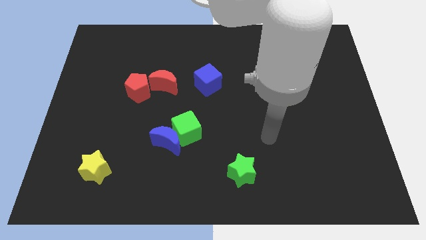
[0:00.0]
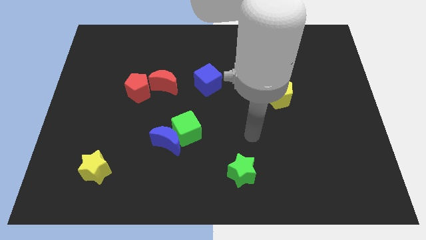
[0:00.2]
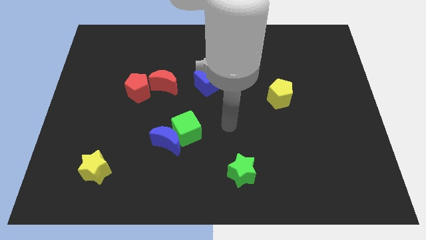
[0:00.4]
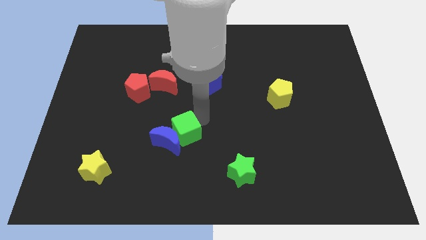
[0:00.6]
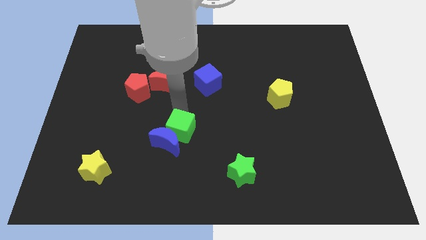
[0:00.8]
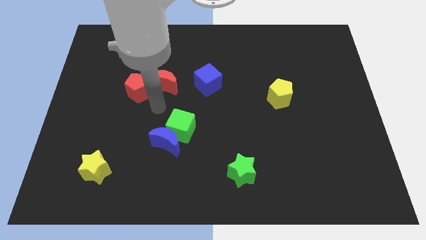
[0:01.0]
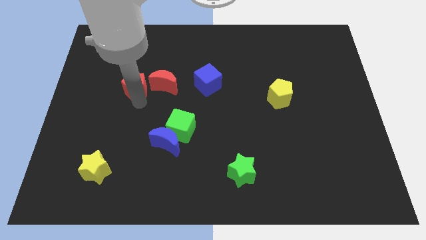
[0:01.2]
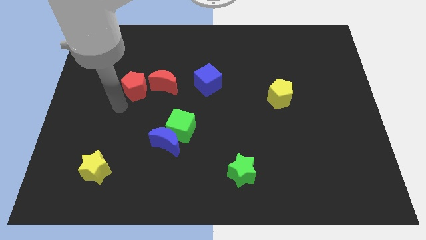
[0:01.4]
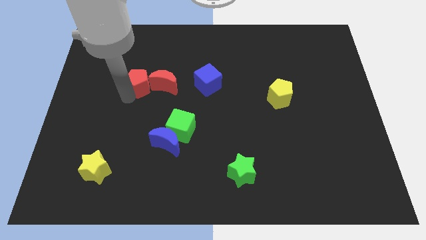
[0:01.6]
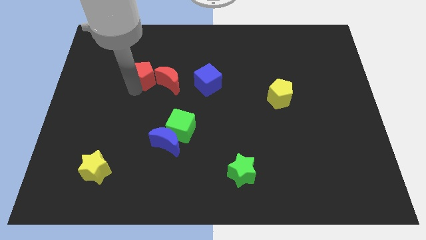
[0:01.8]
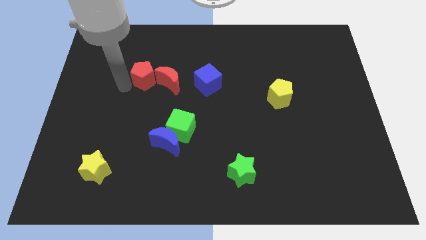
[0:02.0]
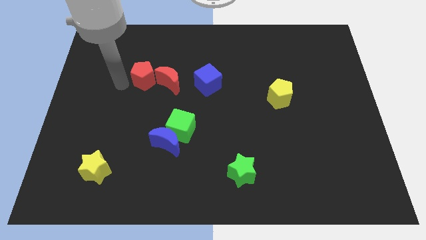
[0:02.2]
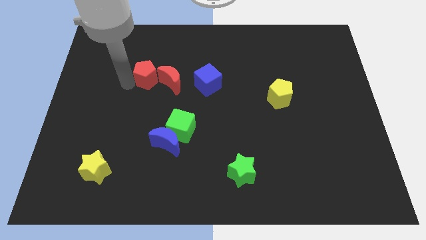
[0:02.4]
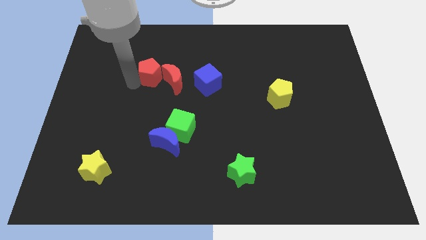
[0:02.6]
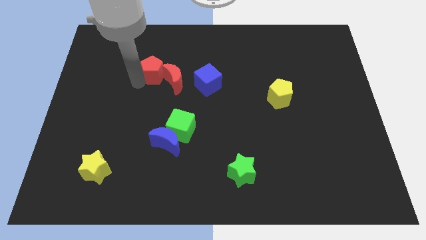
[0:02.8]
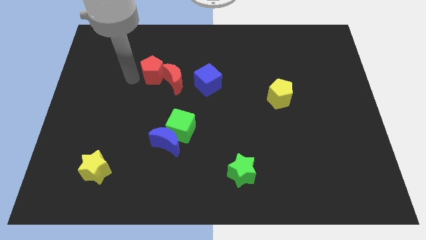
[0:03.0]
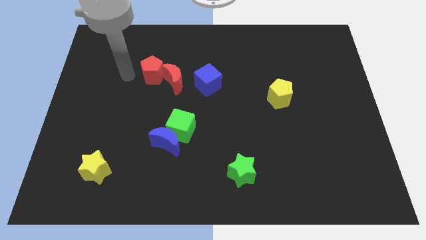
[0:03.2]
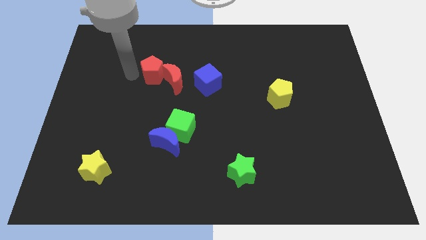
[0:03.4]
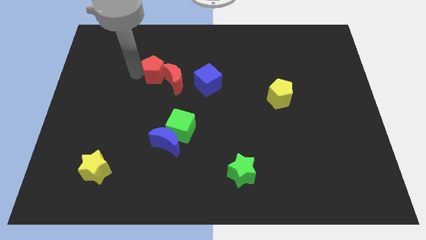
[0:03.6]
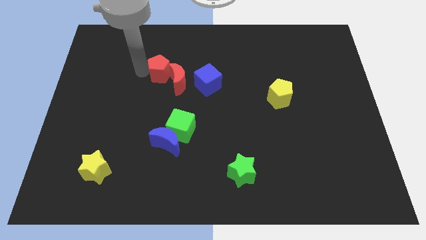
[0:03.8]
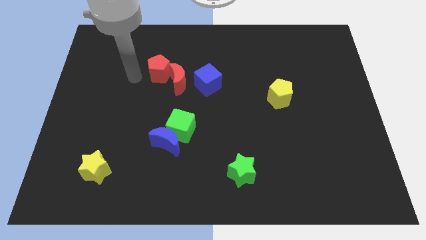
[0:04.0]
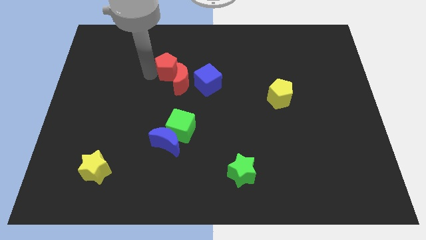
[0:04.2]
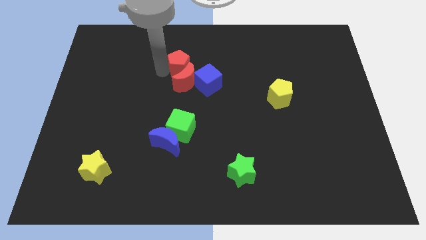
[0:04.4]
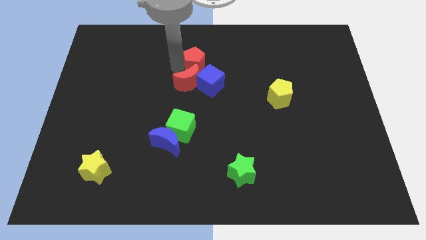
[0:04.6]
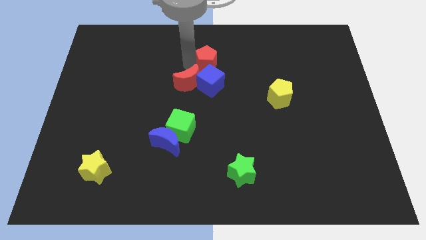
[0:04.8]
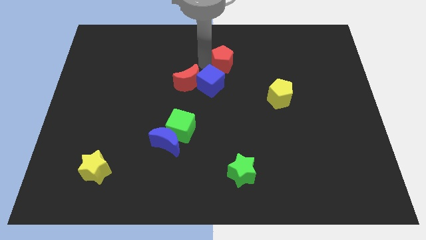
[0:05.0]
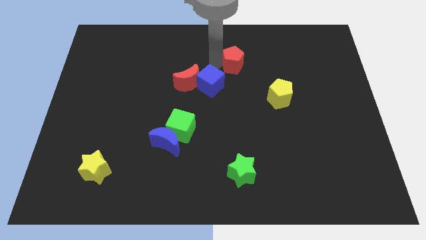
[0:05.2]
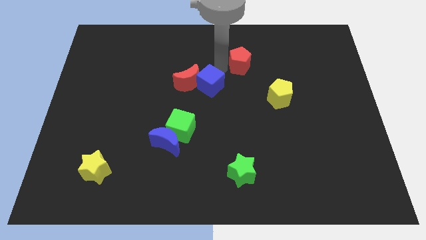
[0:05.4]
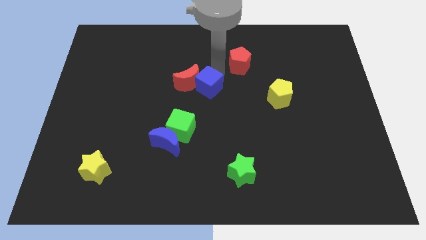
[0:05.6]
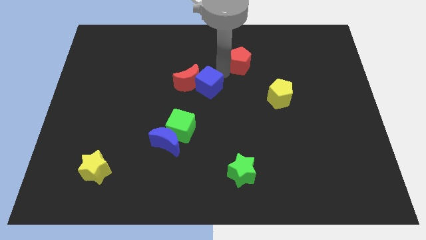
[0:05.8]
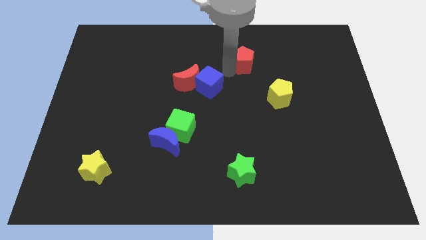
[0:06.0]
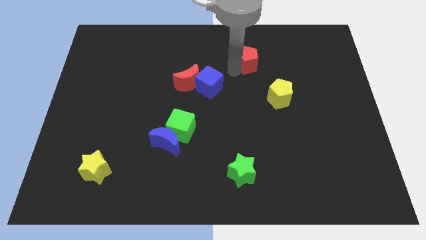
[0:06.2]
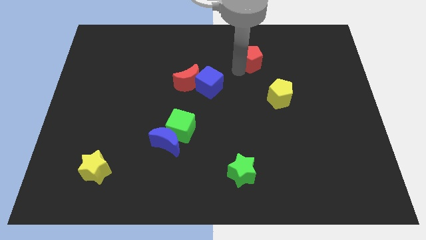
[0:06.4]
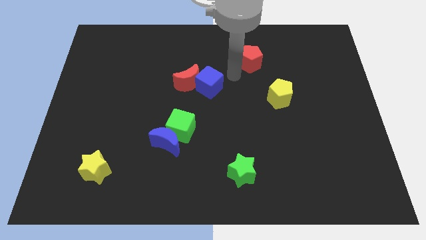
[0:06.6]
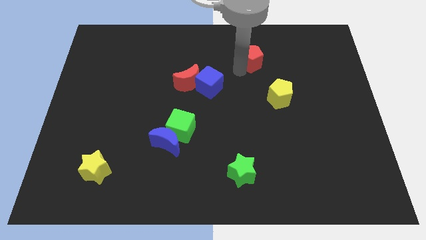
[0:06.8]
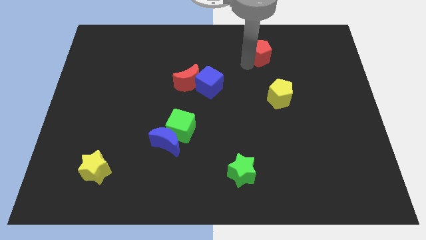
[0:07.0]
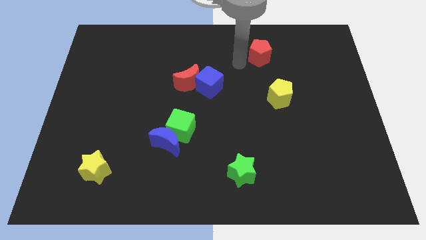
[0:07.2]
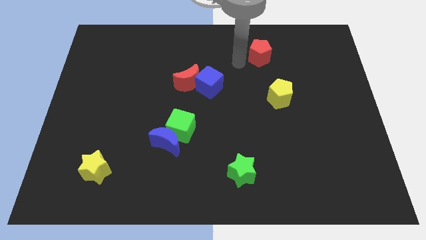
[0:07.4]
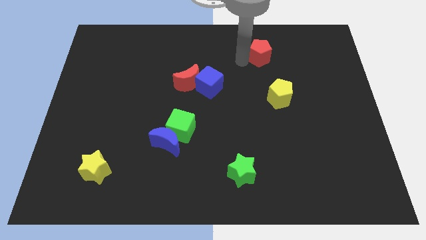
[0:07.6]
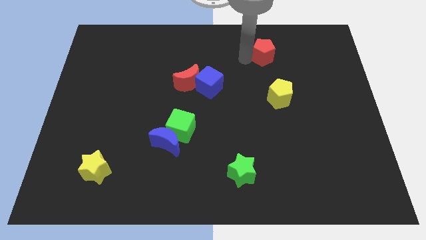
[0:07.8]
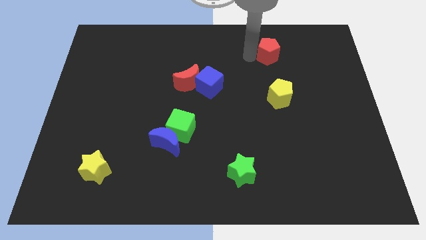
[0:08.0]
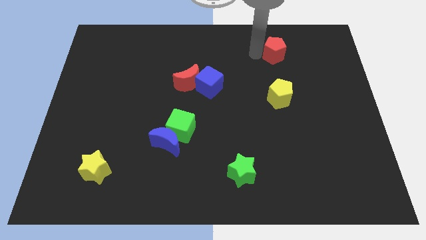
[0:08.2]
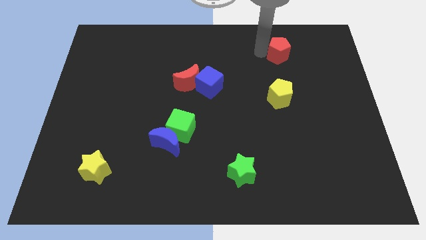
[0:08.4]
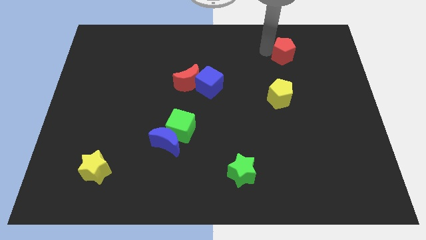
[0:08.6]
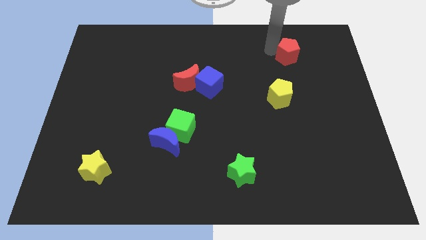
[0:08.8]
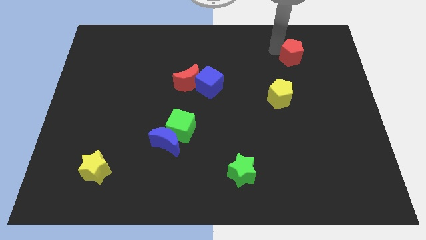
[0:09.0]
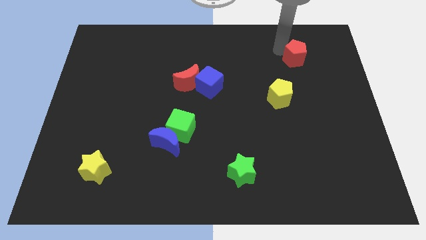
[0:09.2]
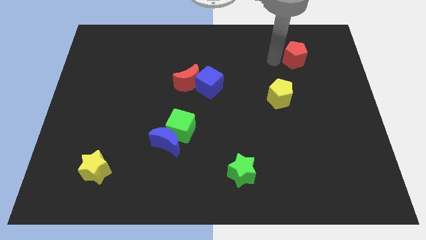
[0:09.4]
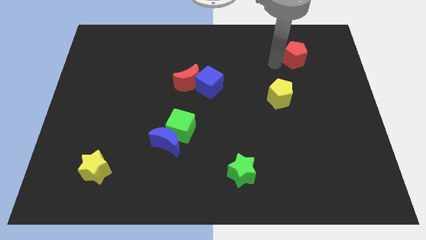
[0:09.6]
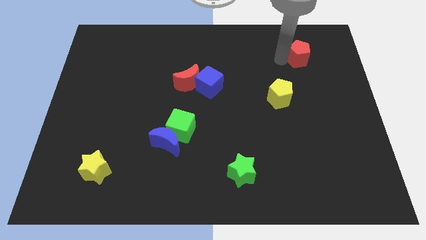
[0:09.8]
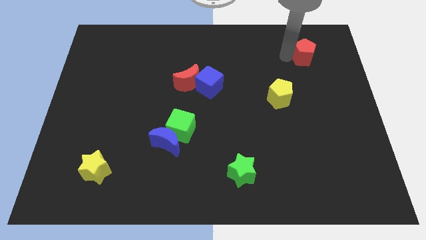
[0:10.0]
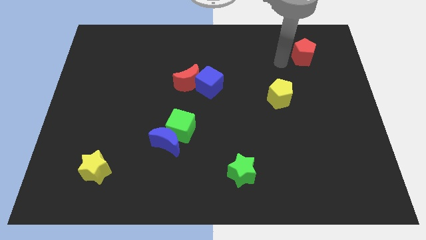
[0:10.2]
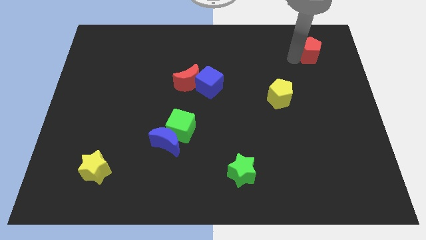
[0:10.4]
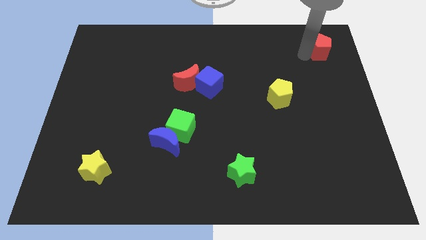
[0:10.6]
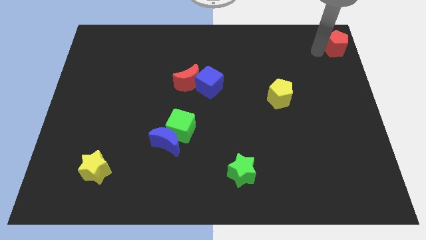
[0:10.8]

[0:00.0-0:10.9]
move the red pentagon to the upper right corner

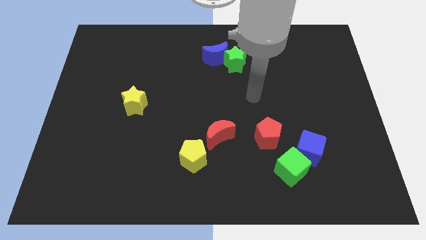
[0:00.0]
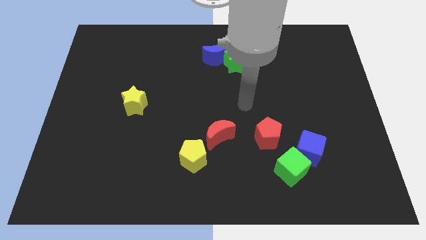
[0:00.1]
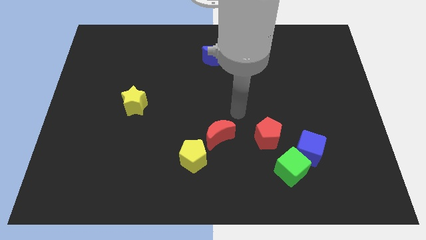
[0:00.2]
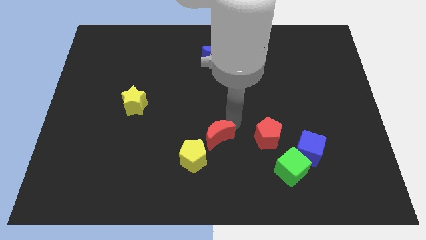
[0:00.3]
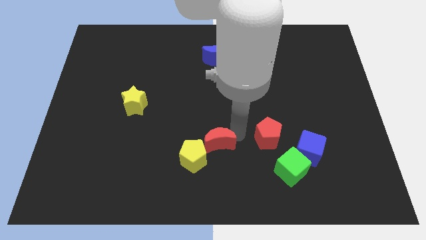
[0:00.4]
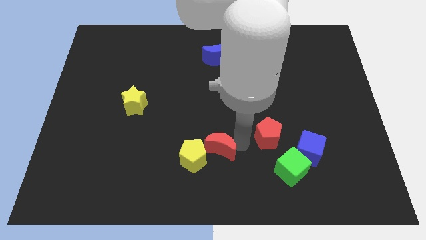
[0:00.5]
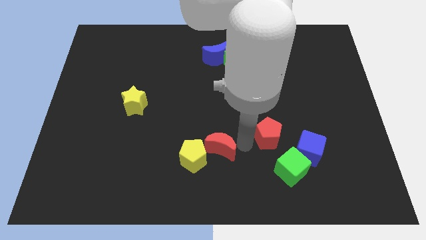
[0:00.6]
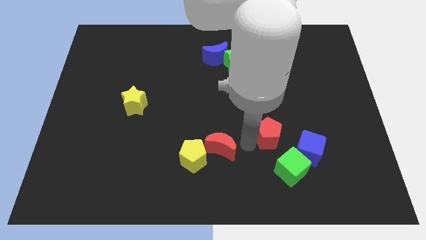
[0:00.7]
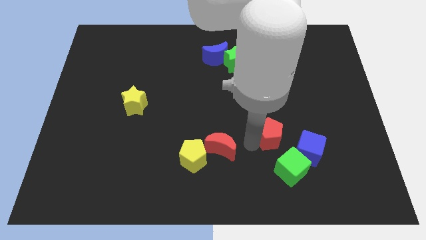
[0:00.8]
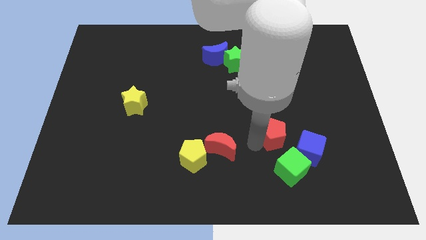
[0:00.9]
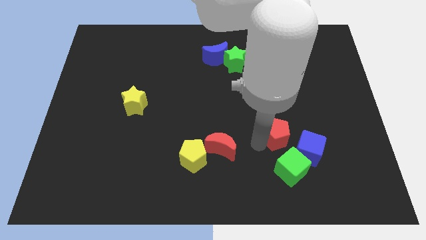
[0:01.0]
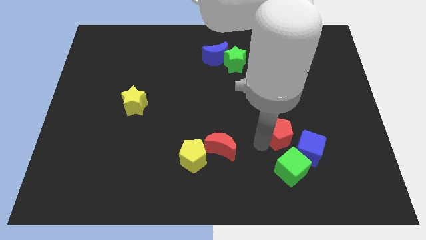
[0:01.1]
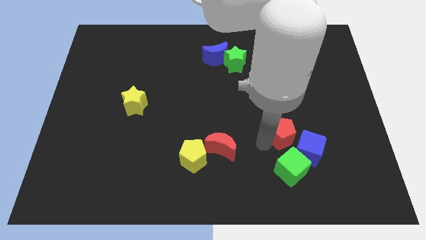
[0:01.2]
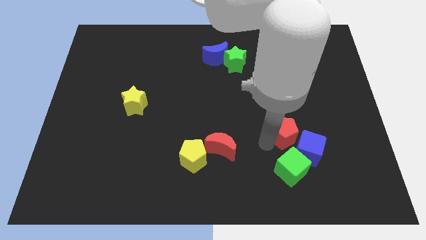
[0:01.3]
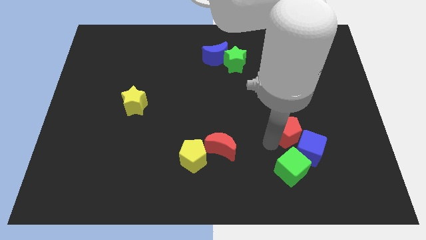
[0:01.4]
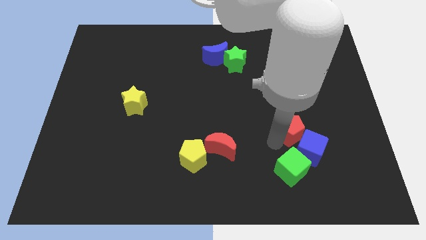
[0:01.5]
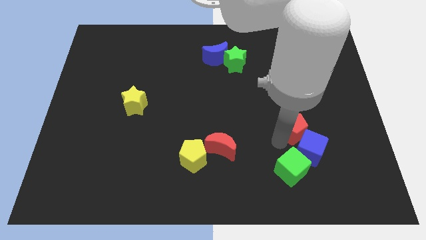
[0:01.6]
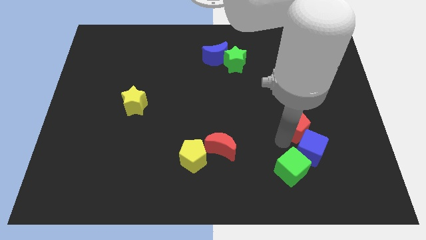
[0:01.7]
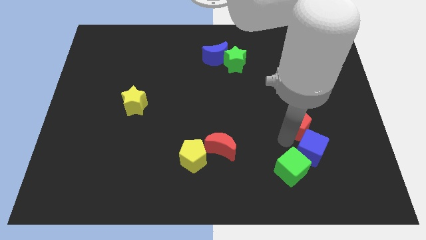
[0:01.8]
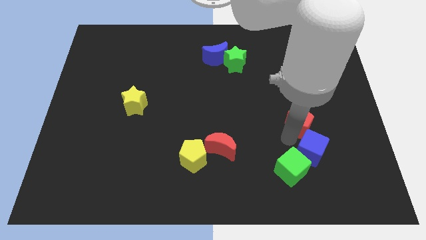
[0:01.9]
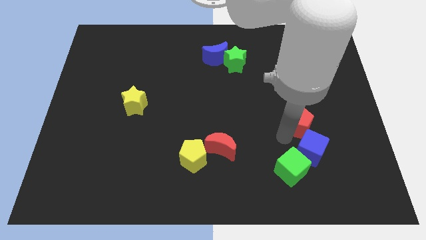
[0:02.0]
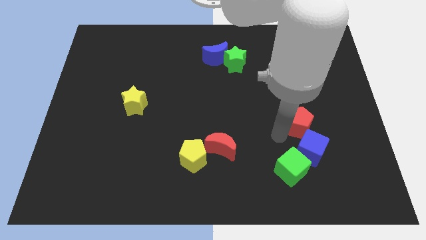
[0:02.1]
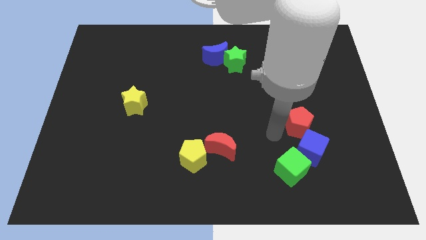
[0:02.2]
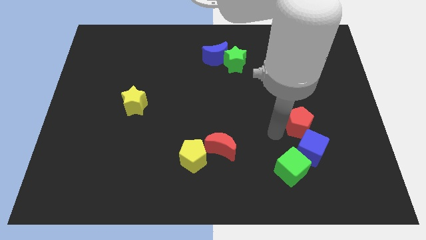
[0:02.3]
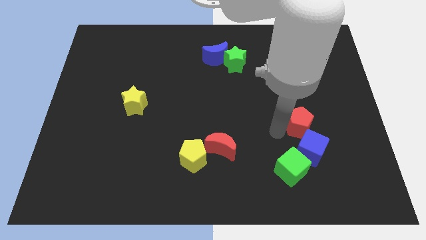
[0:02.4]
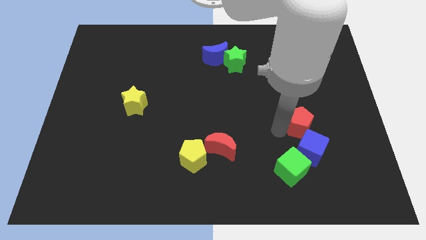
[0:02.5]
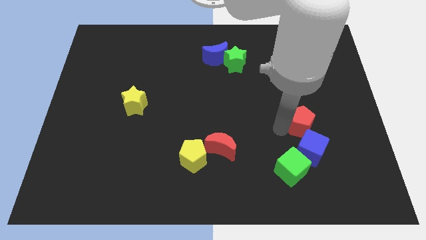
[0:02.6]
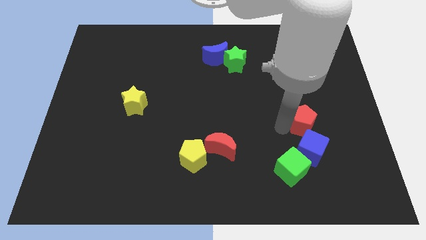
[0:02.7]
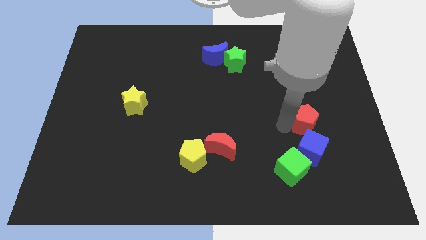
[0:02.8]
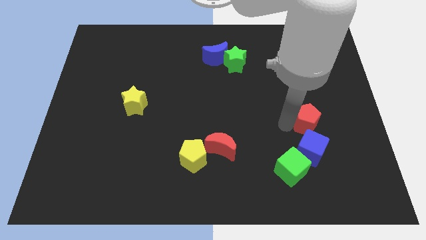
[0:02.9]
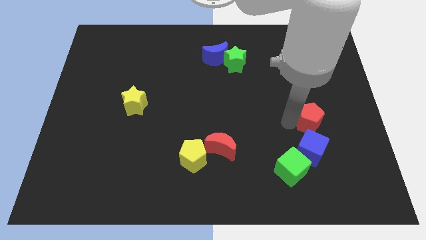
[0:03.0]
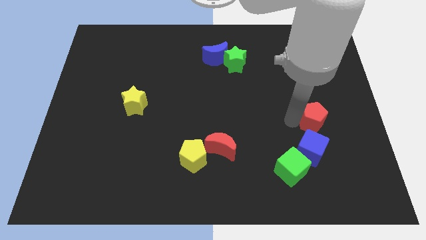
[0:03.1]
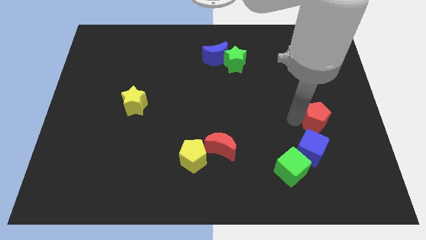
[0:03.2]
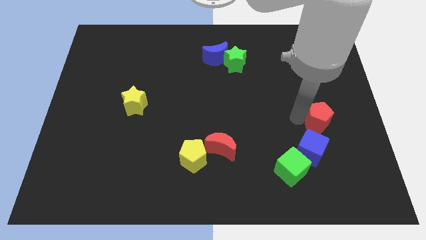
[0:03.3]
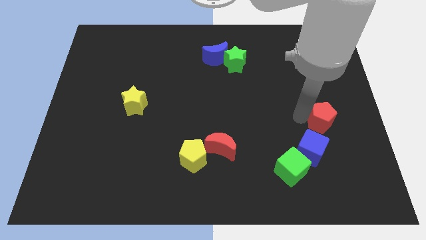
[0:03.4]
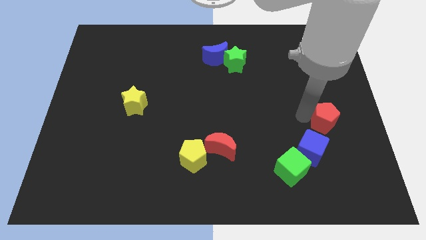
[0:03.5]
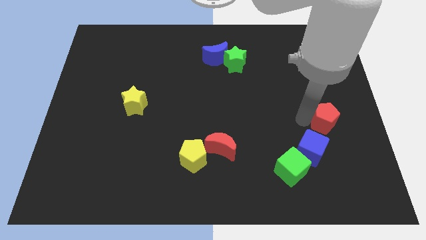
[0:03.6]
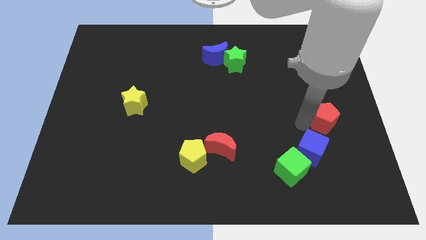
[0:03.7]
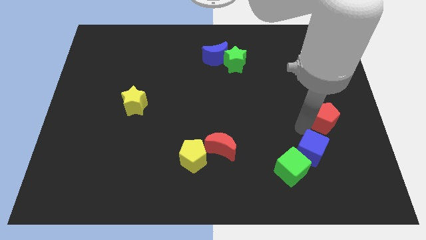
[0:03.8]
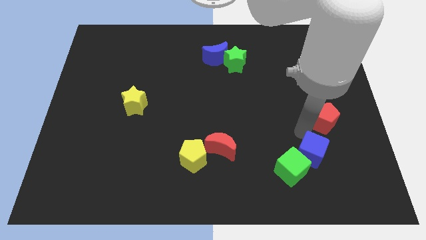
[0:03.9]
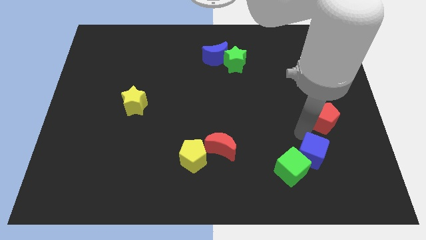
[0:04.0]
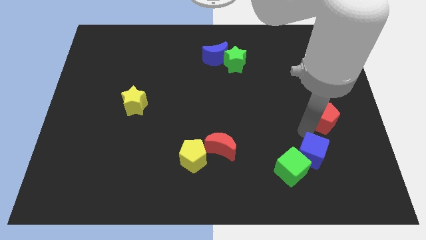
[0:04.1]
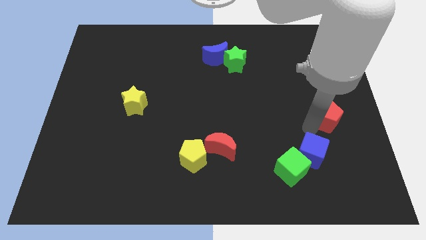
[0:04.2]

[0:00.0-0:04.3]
move the red pentagon to the right side of the board
